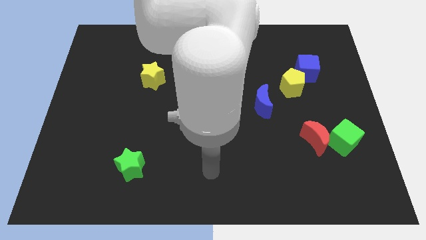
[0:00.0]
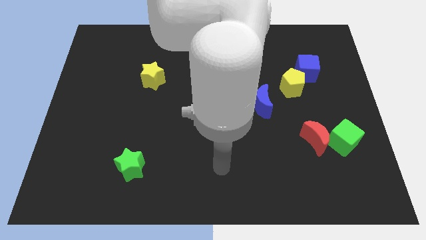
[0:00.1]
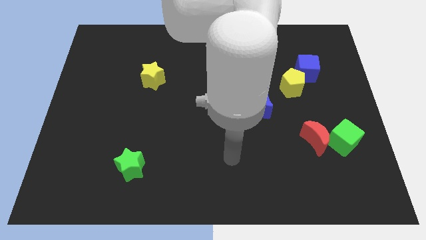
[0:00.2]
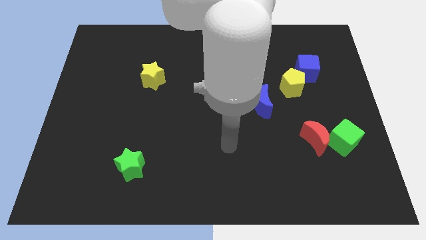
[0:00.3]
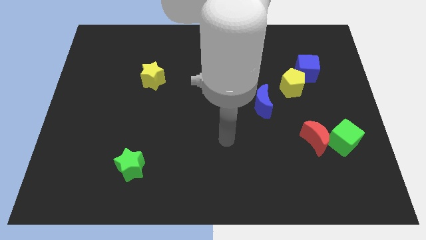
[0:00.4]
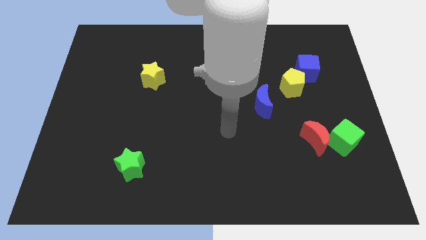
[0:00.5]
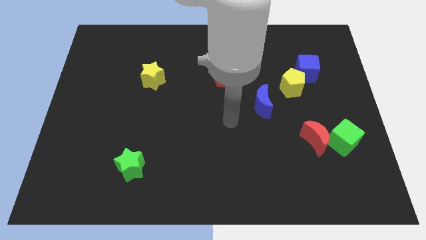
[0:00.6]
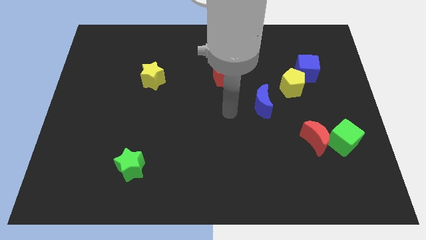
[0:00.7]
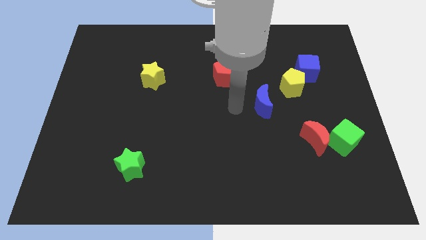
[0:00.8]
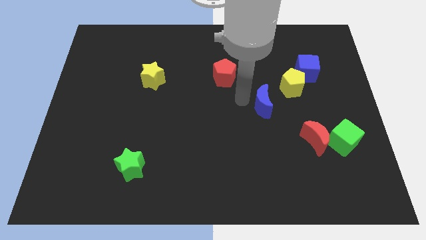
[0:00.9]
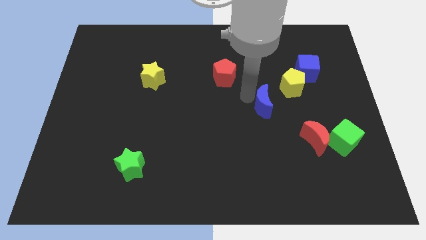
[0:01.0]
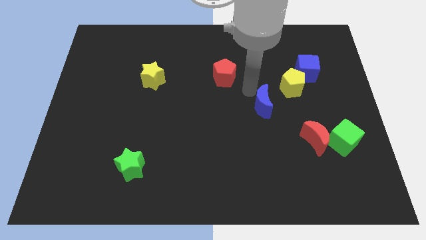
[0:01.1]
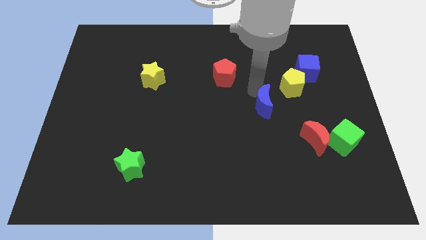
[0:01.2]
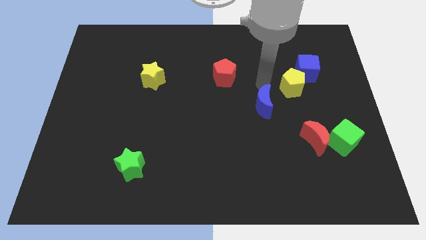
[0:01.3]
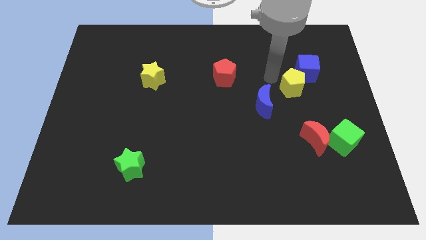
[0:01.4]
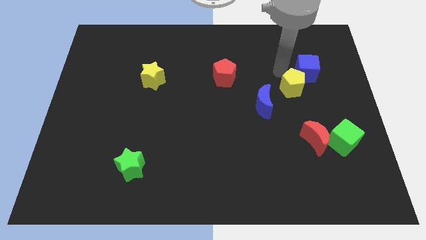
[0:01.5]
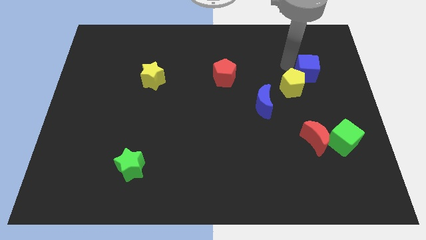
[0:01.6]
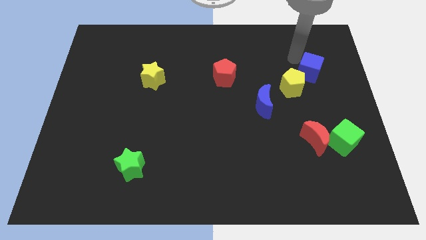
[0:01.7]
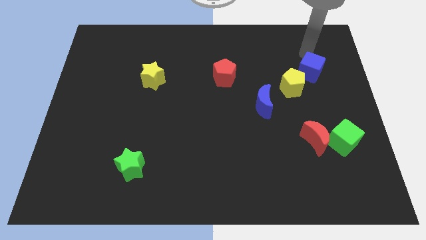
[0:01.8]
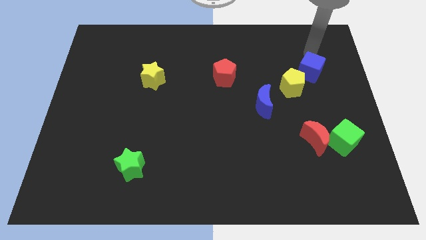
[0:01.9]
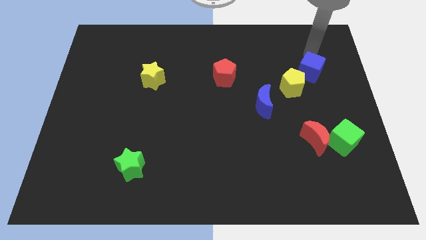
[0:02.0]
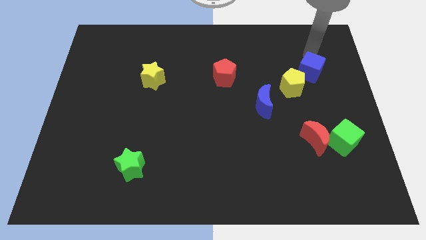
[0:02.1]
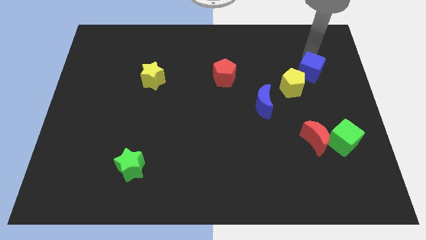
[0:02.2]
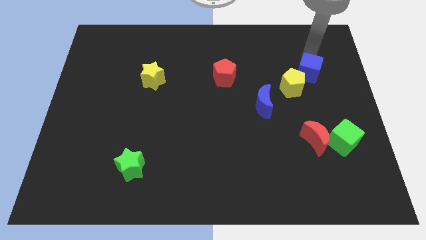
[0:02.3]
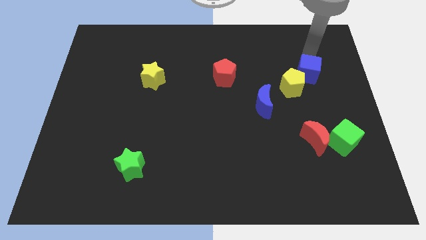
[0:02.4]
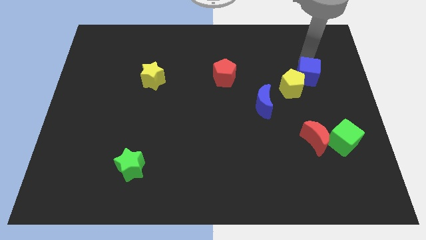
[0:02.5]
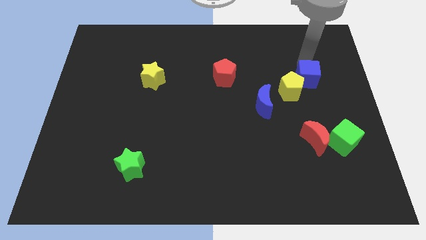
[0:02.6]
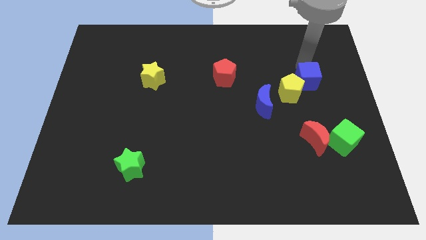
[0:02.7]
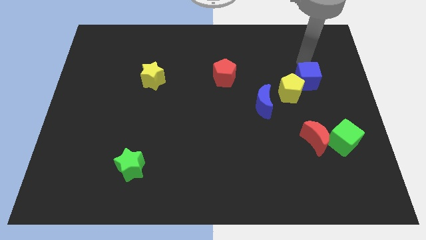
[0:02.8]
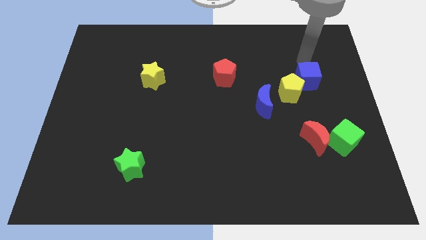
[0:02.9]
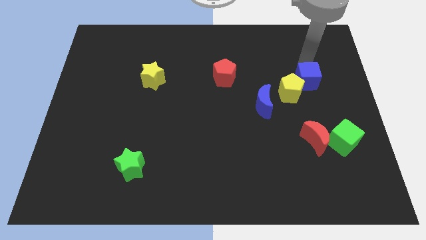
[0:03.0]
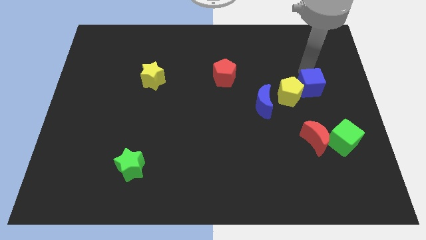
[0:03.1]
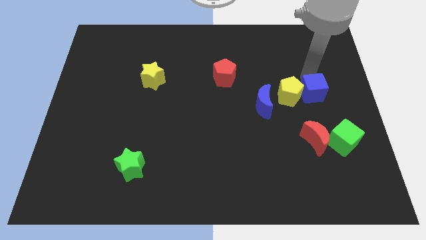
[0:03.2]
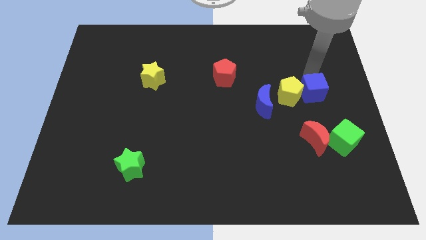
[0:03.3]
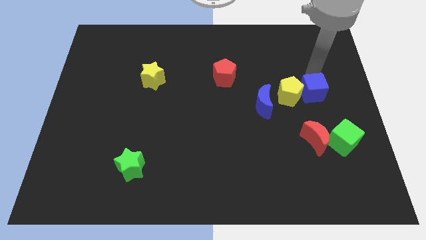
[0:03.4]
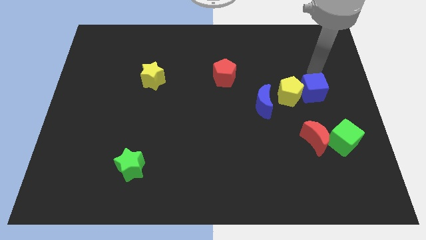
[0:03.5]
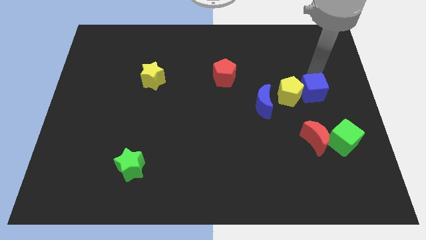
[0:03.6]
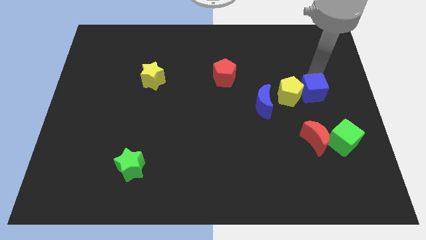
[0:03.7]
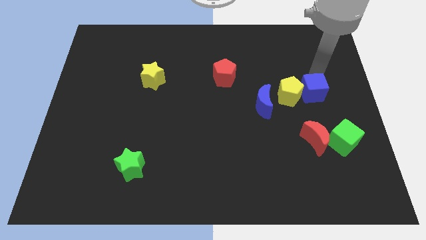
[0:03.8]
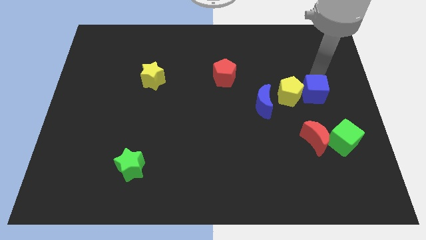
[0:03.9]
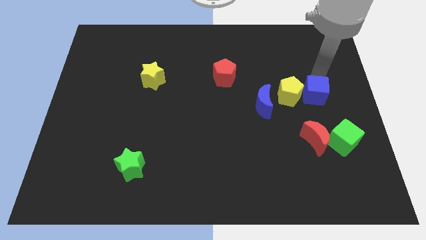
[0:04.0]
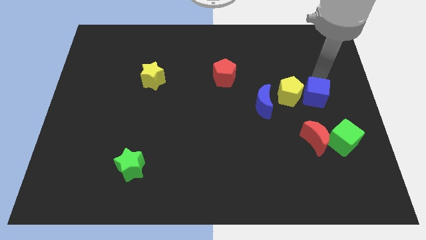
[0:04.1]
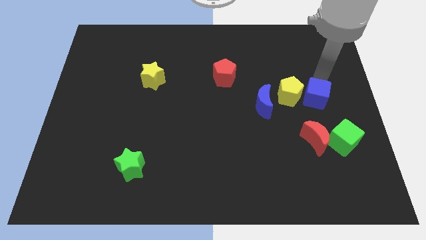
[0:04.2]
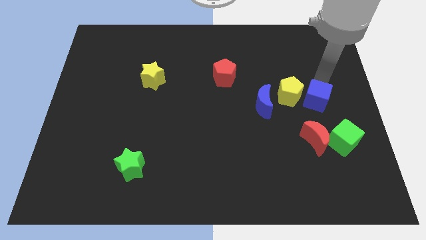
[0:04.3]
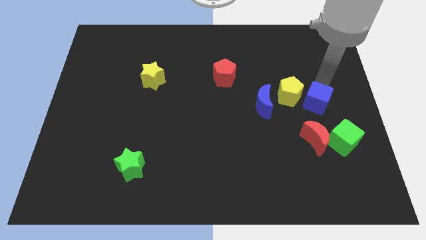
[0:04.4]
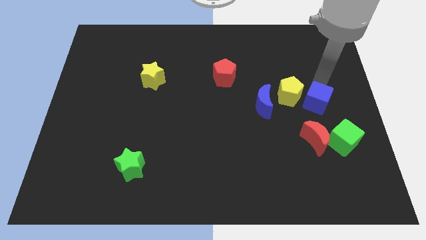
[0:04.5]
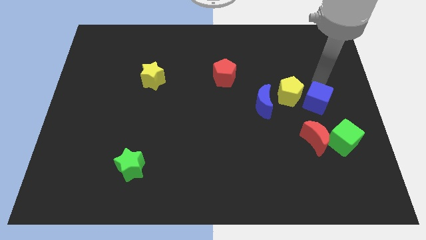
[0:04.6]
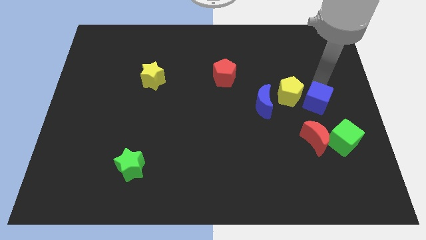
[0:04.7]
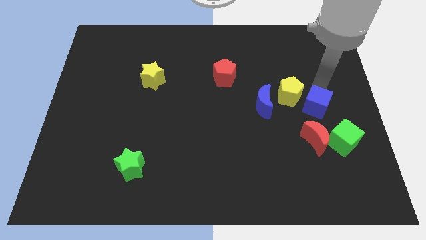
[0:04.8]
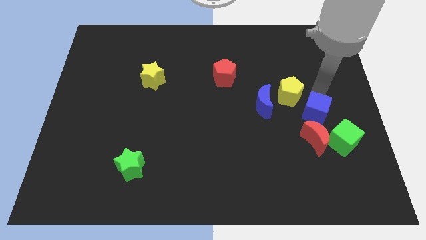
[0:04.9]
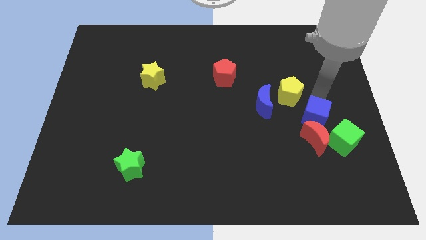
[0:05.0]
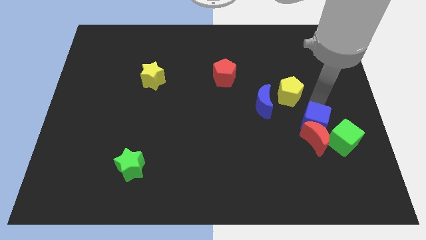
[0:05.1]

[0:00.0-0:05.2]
push the blue cube to the red moon

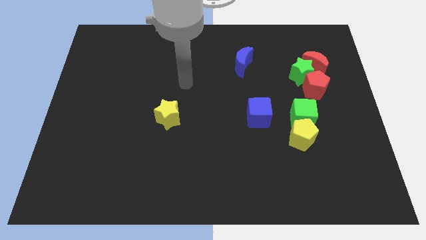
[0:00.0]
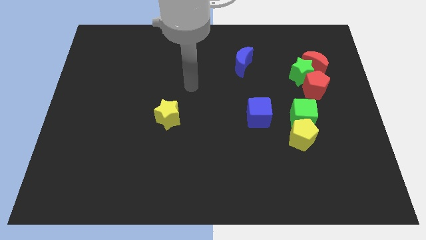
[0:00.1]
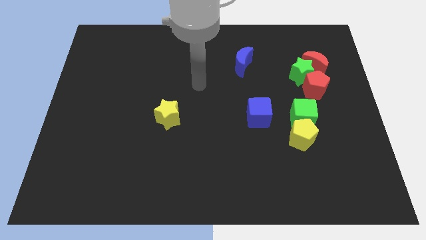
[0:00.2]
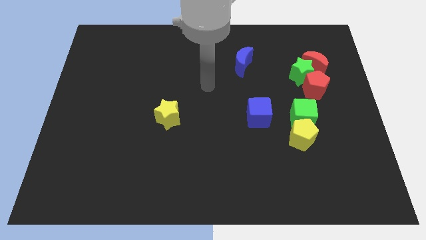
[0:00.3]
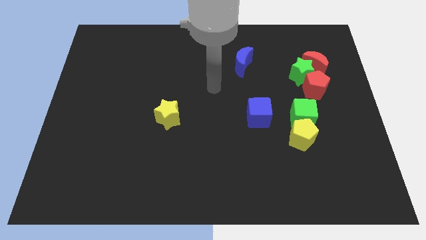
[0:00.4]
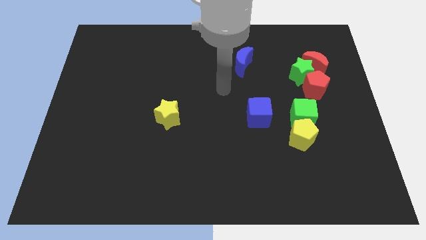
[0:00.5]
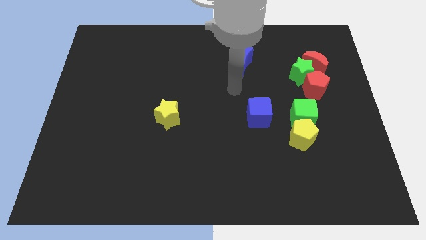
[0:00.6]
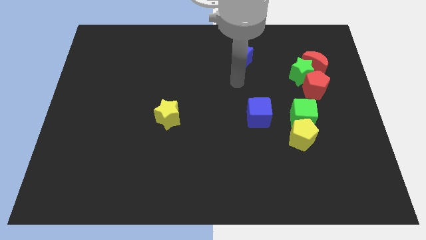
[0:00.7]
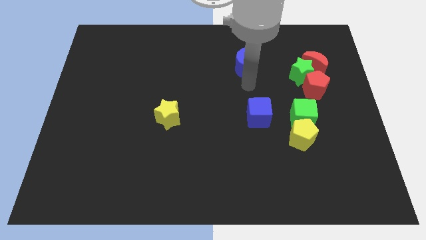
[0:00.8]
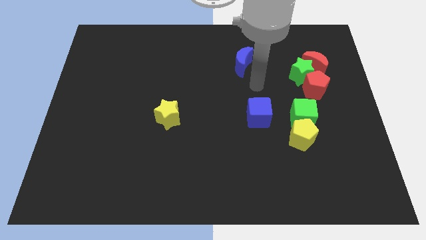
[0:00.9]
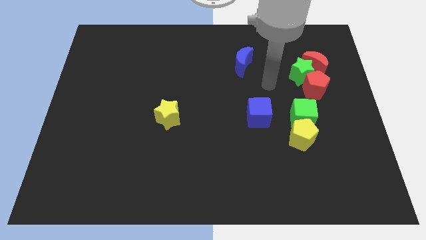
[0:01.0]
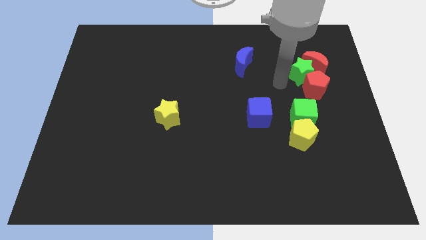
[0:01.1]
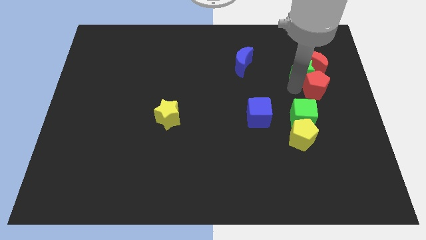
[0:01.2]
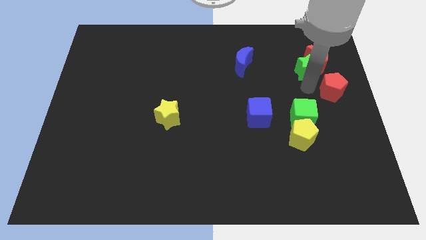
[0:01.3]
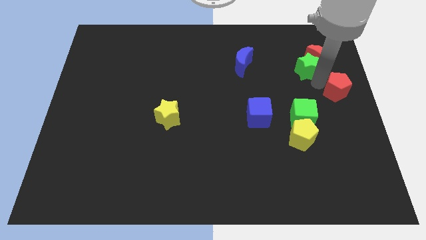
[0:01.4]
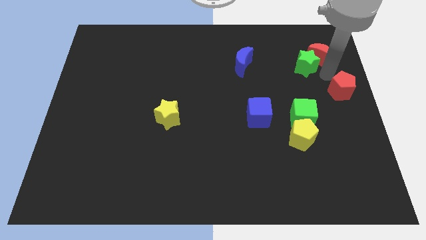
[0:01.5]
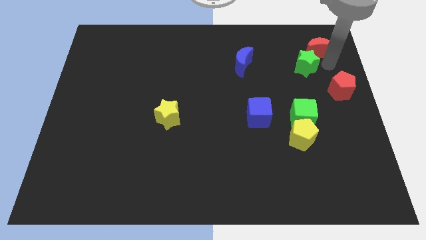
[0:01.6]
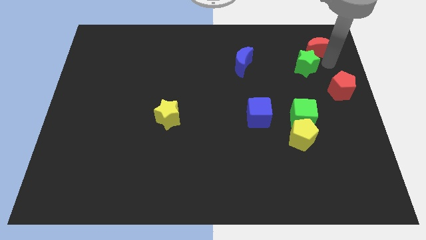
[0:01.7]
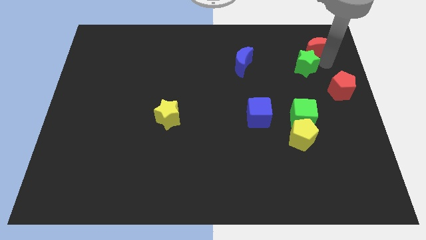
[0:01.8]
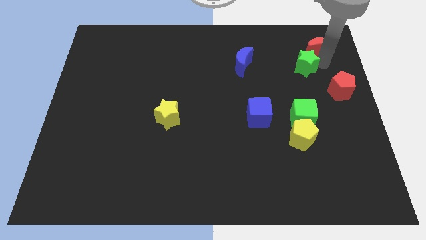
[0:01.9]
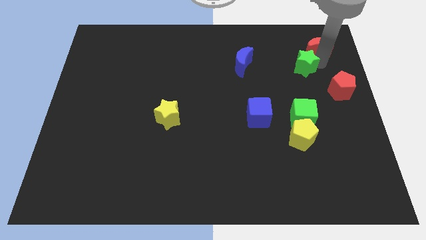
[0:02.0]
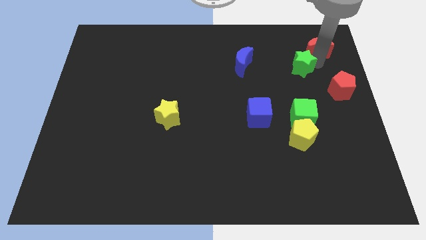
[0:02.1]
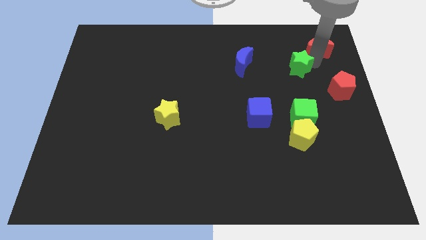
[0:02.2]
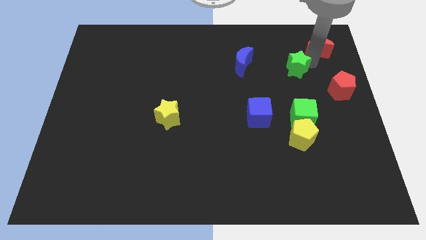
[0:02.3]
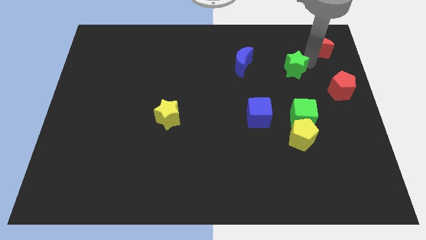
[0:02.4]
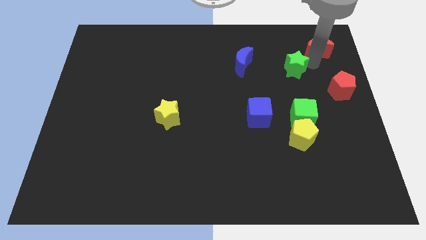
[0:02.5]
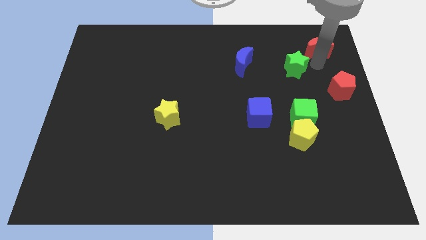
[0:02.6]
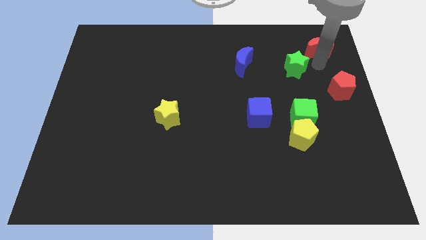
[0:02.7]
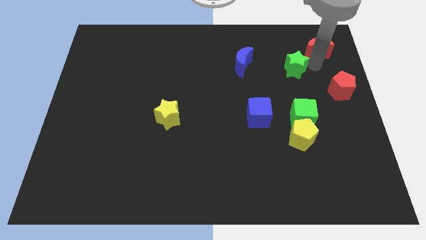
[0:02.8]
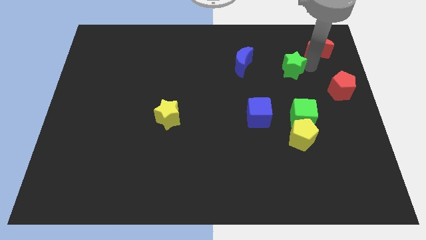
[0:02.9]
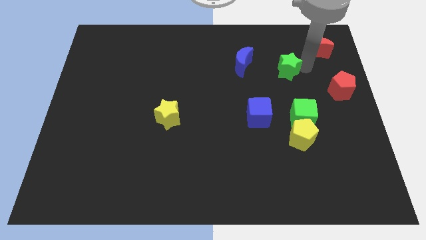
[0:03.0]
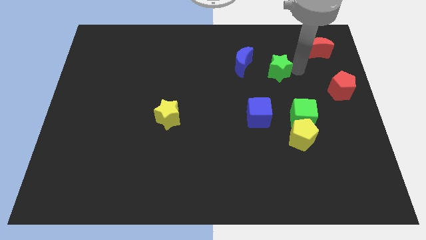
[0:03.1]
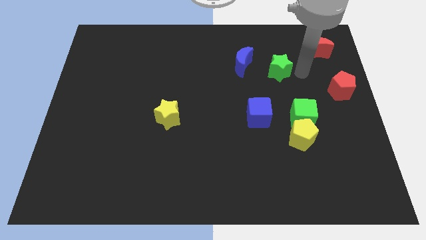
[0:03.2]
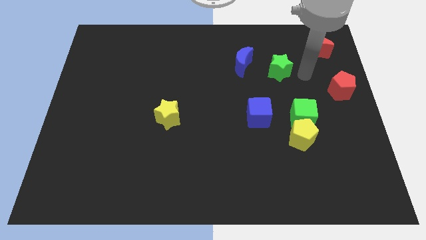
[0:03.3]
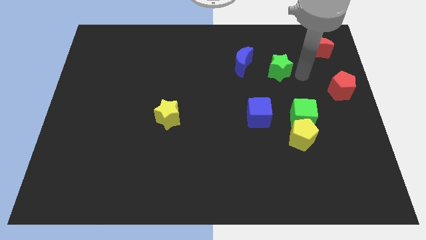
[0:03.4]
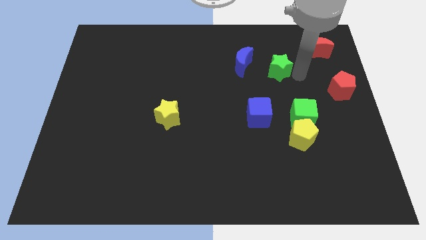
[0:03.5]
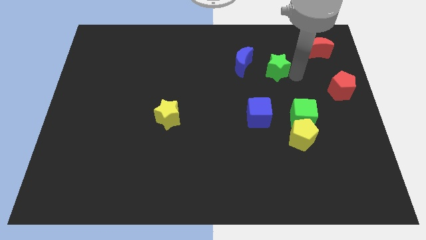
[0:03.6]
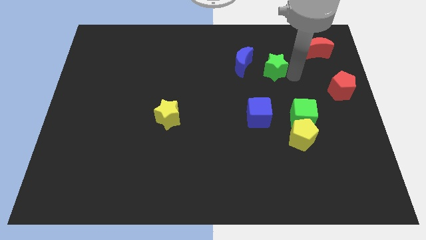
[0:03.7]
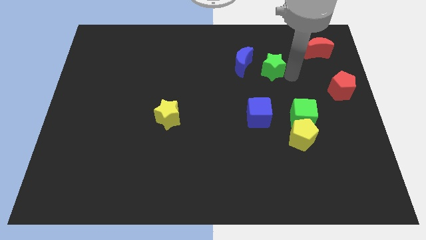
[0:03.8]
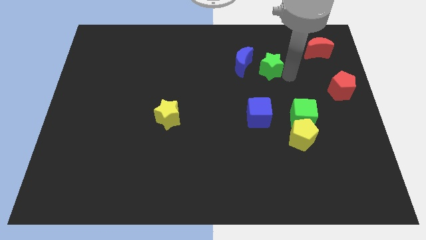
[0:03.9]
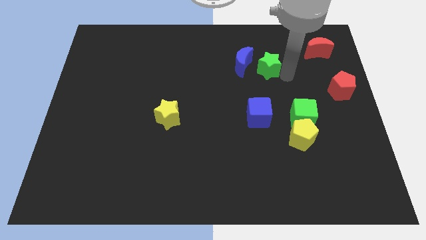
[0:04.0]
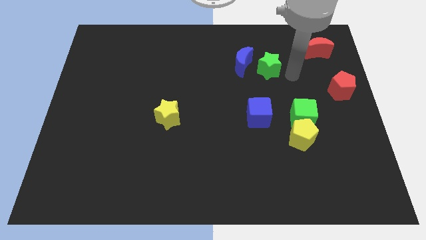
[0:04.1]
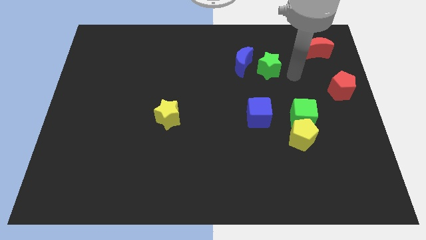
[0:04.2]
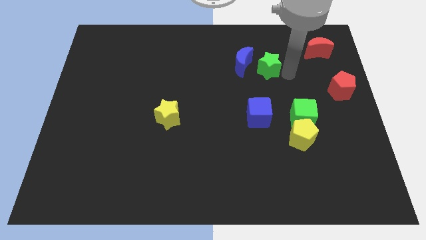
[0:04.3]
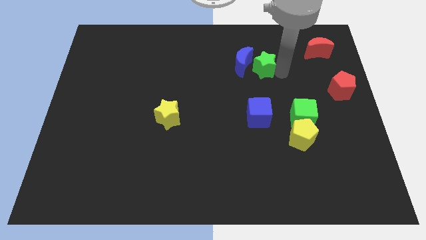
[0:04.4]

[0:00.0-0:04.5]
move the green star towards the blue moon
